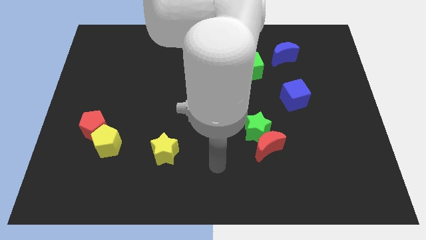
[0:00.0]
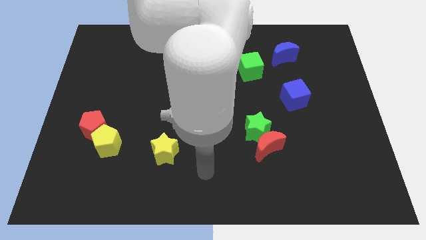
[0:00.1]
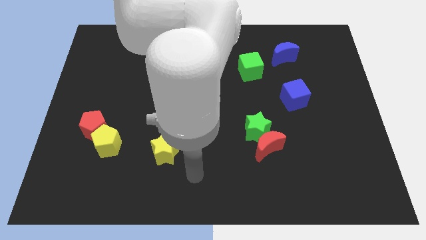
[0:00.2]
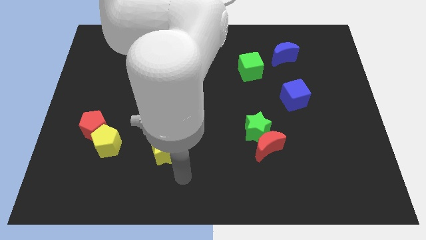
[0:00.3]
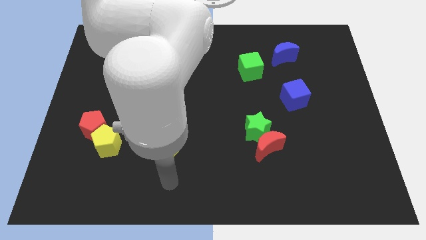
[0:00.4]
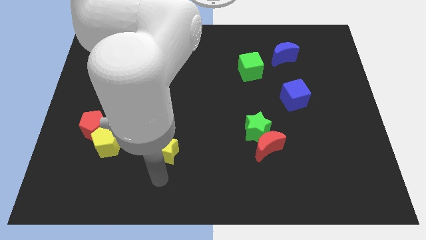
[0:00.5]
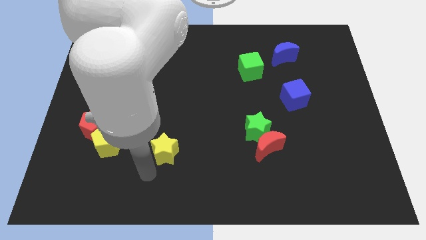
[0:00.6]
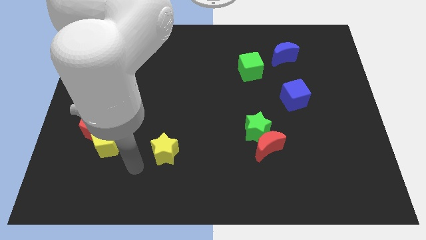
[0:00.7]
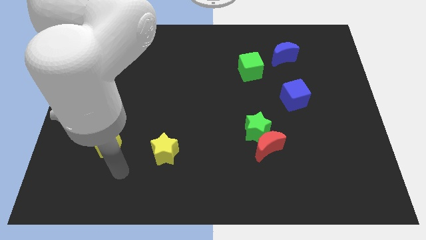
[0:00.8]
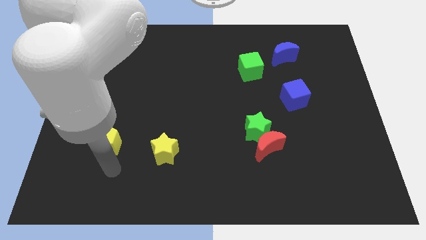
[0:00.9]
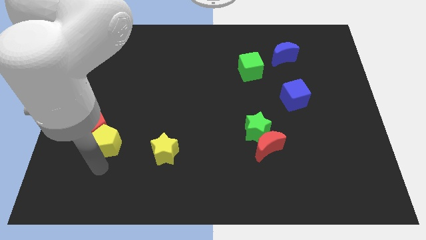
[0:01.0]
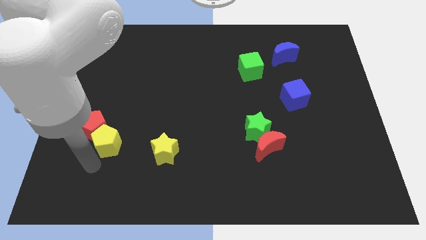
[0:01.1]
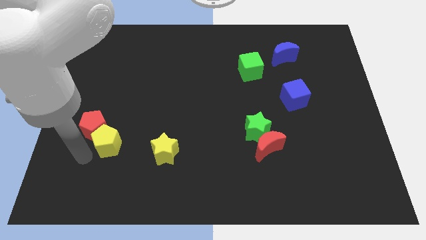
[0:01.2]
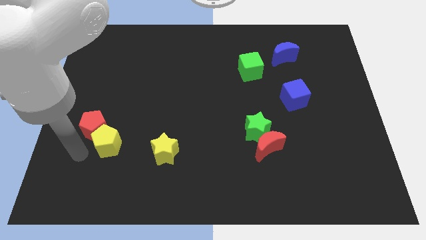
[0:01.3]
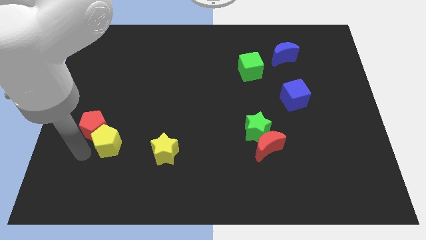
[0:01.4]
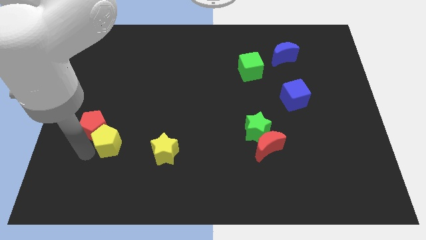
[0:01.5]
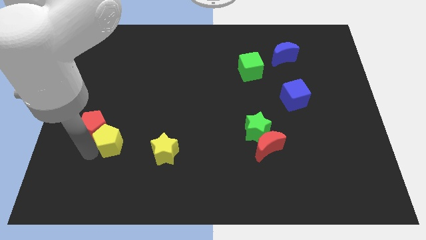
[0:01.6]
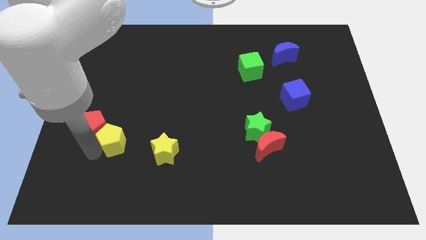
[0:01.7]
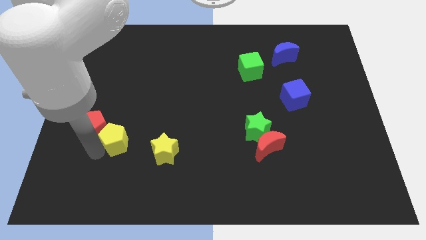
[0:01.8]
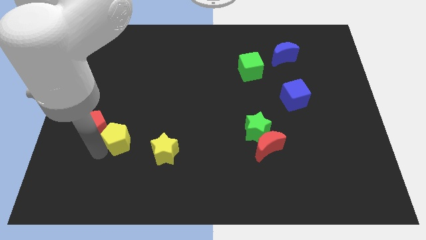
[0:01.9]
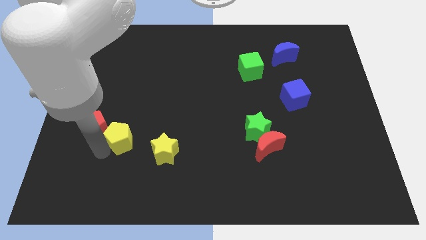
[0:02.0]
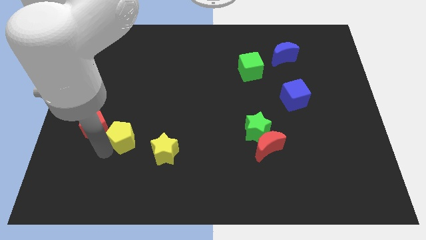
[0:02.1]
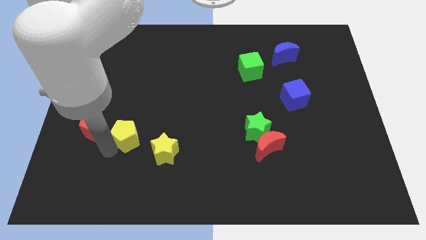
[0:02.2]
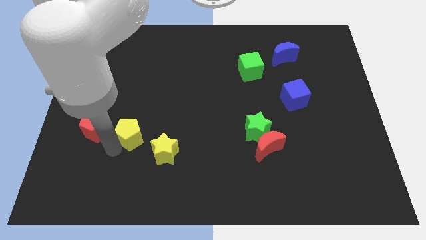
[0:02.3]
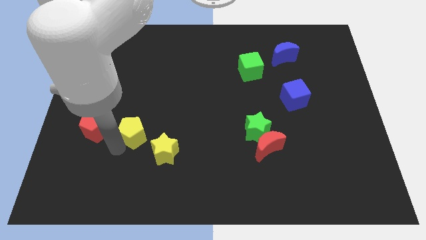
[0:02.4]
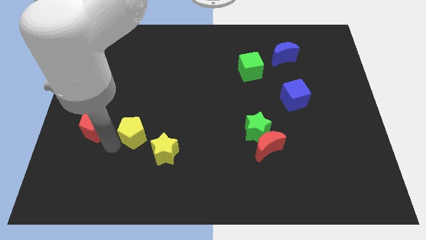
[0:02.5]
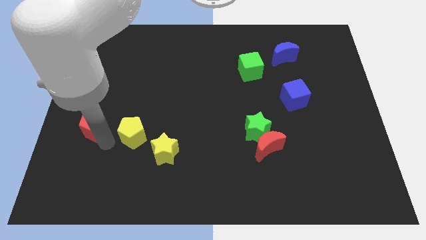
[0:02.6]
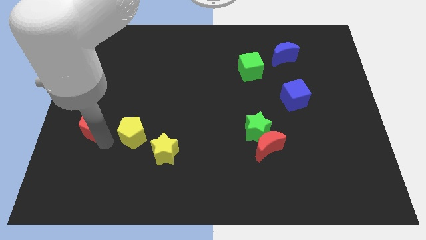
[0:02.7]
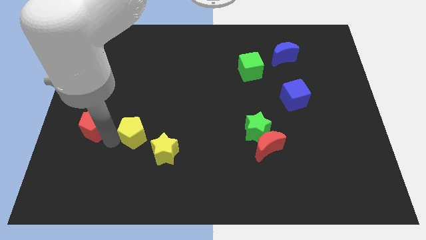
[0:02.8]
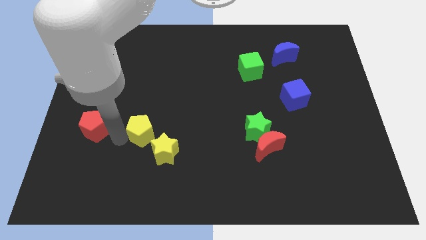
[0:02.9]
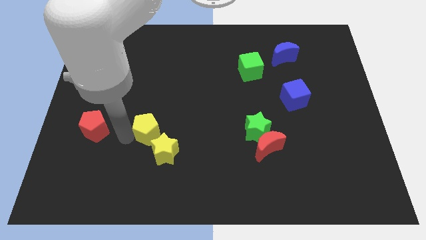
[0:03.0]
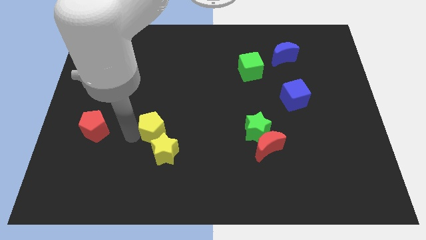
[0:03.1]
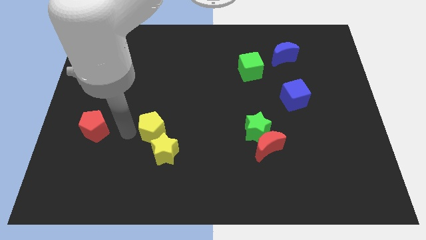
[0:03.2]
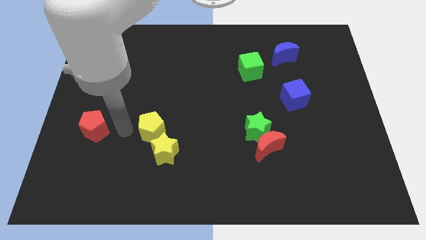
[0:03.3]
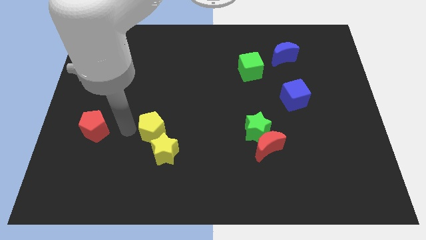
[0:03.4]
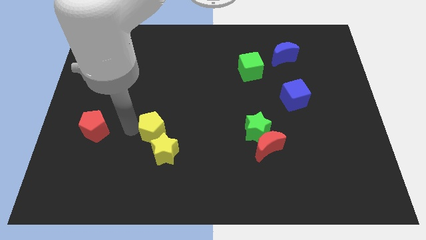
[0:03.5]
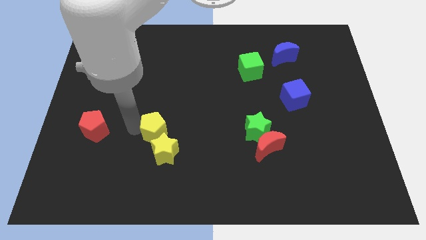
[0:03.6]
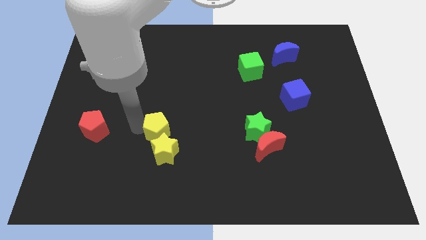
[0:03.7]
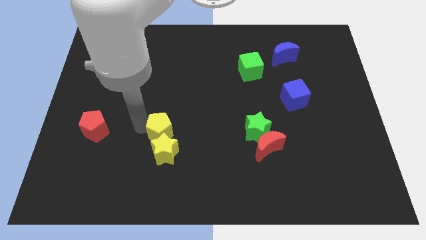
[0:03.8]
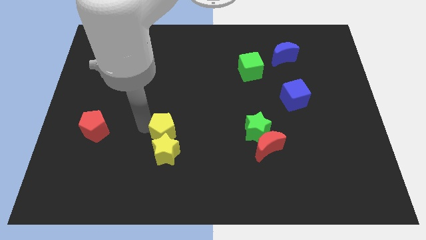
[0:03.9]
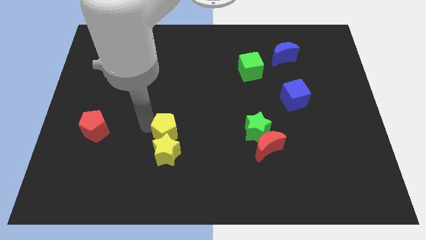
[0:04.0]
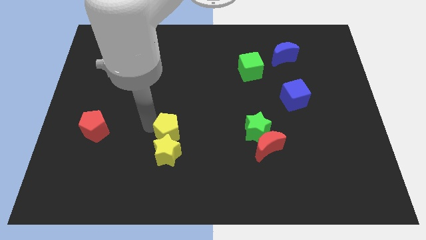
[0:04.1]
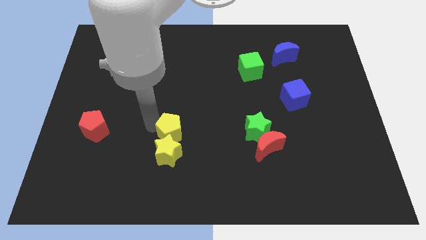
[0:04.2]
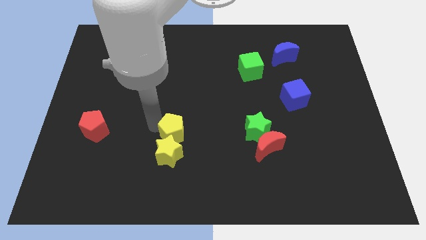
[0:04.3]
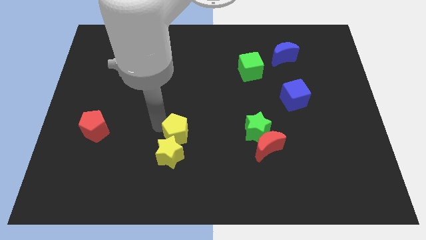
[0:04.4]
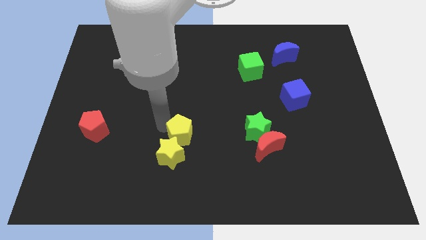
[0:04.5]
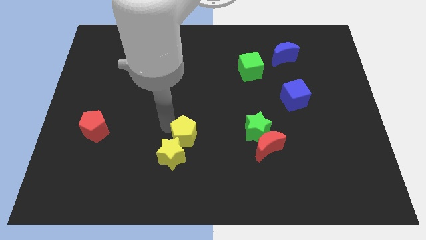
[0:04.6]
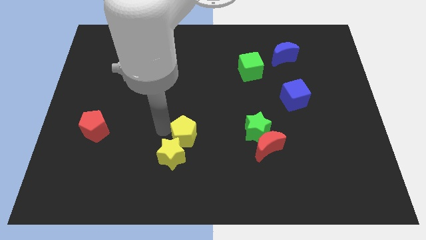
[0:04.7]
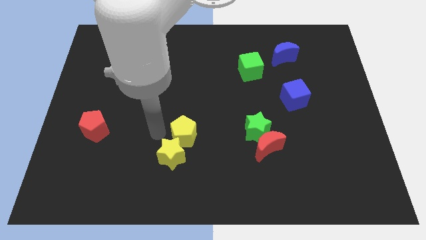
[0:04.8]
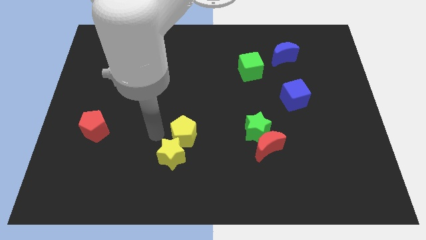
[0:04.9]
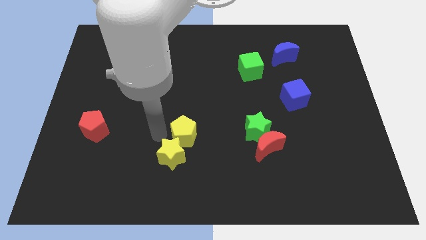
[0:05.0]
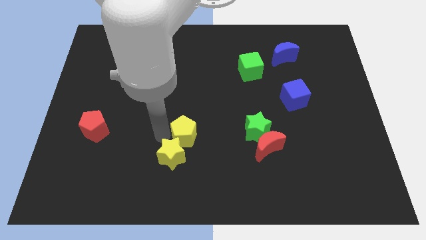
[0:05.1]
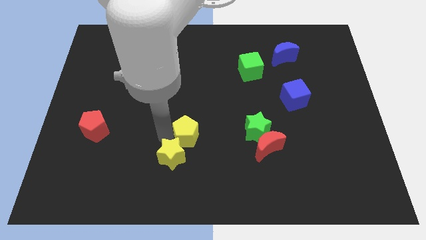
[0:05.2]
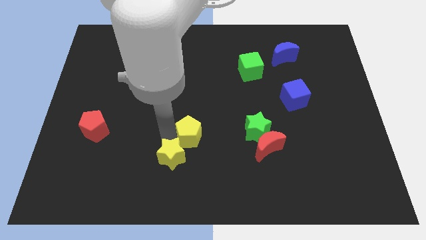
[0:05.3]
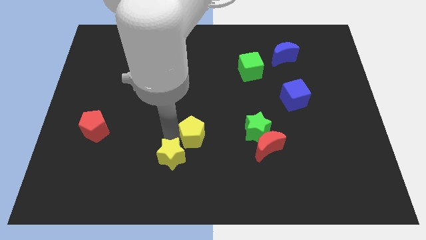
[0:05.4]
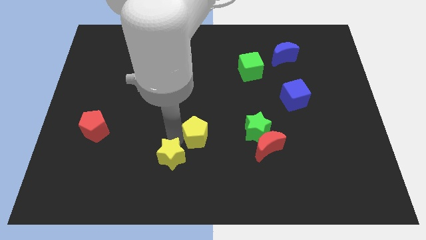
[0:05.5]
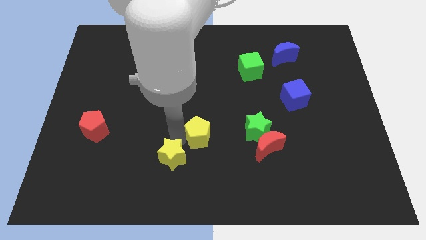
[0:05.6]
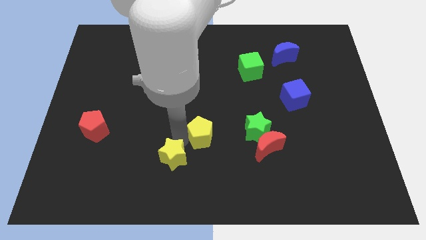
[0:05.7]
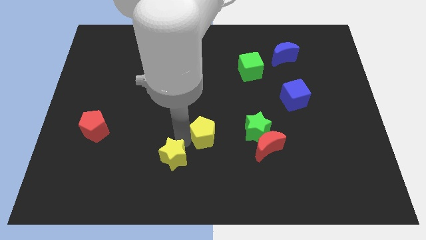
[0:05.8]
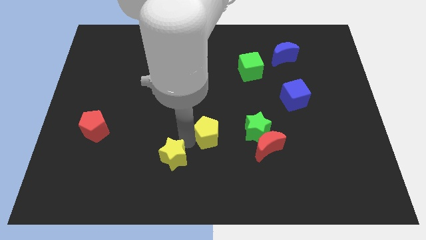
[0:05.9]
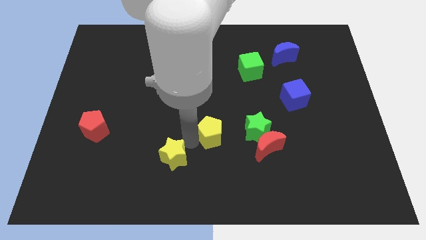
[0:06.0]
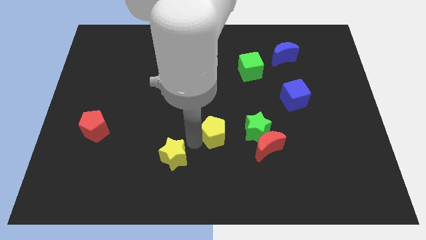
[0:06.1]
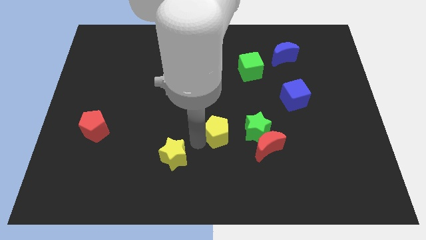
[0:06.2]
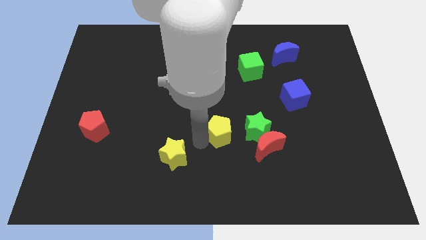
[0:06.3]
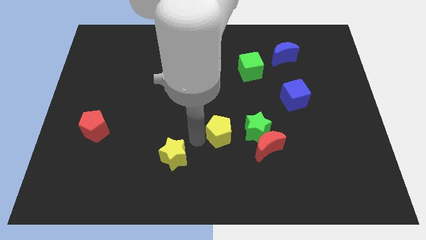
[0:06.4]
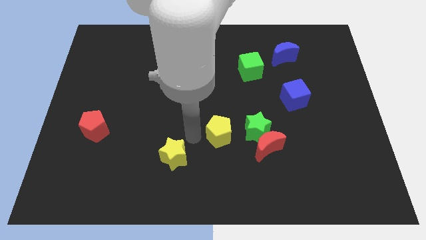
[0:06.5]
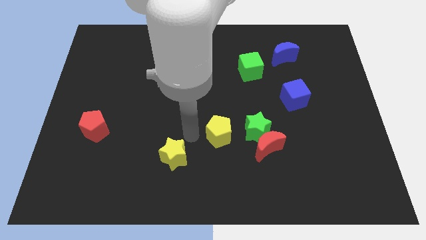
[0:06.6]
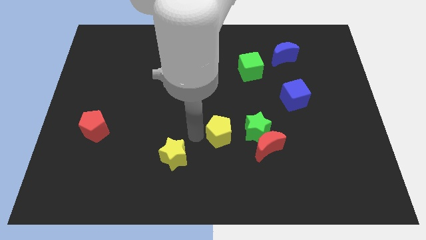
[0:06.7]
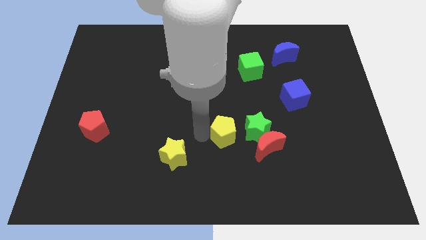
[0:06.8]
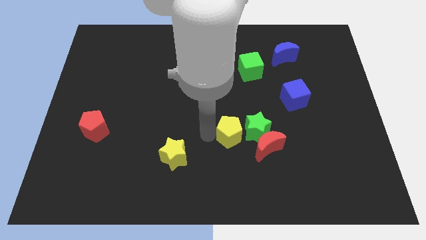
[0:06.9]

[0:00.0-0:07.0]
push the yellow pentagon next to the green star
